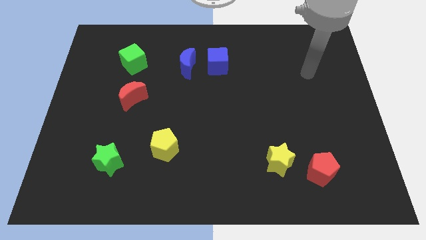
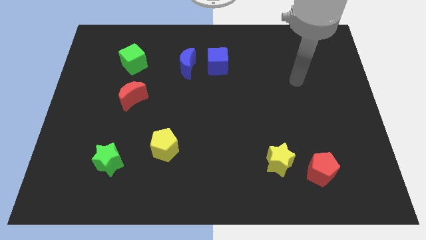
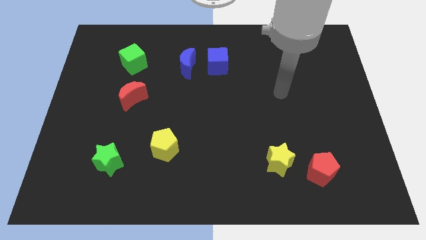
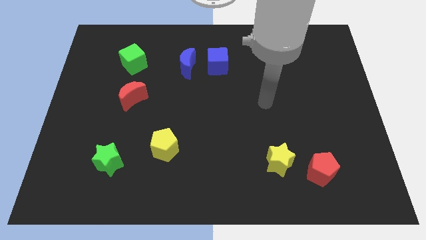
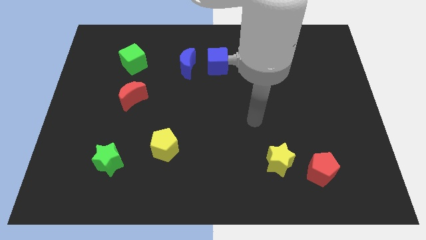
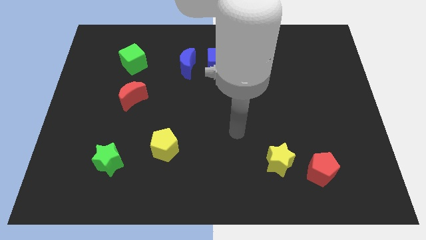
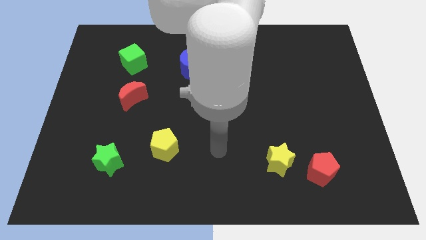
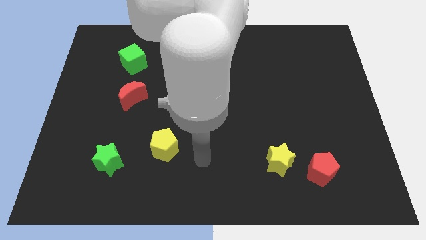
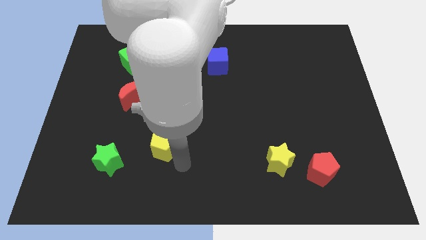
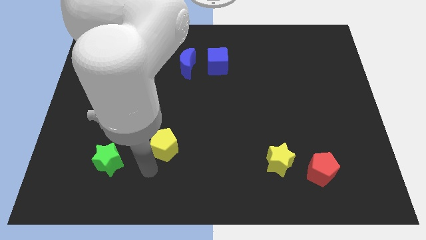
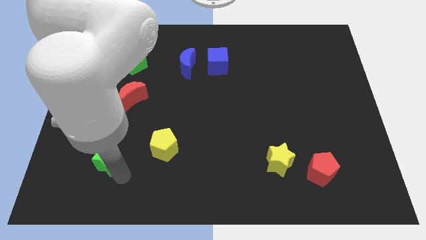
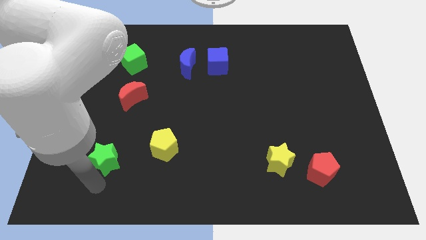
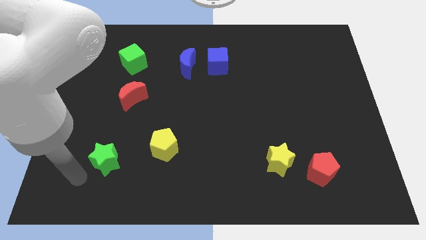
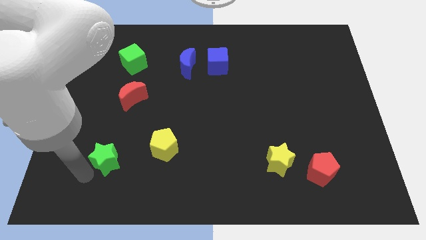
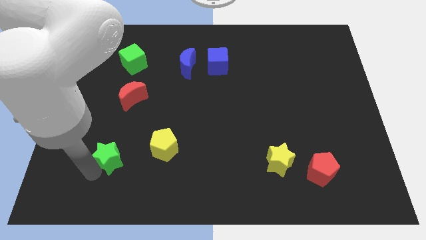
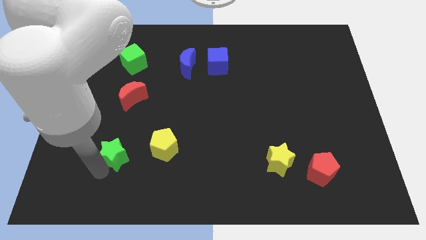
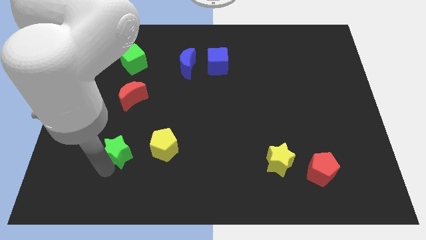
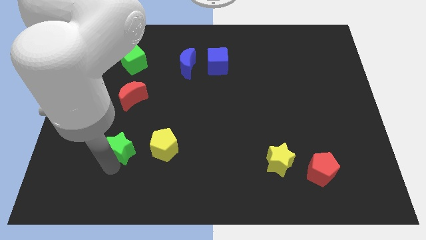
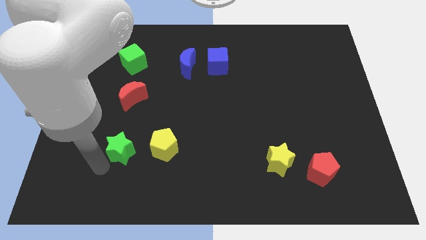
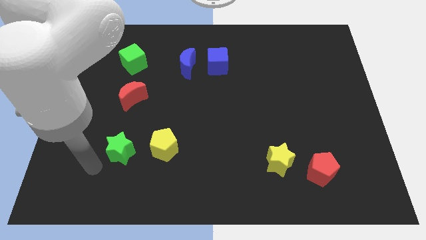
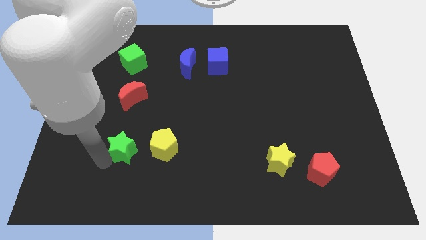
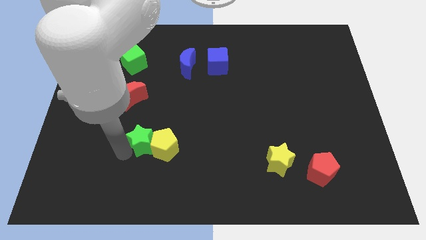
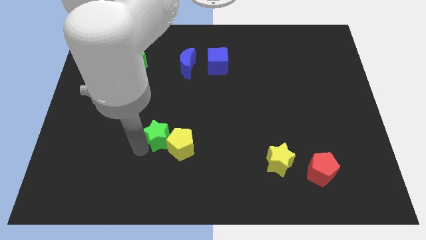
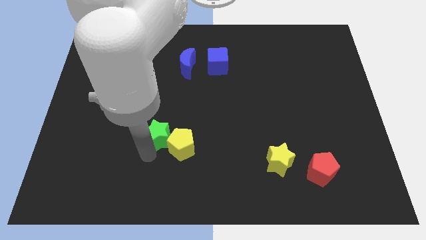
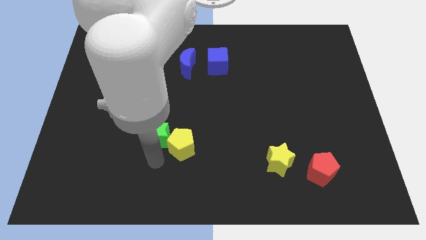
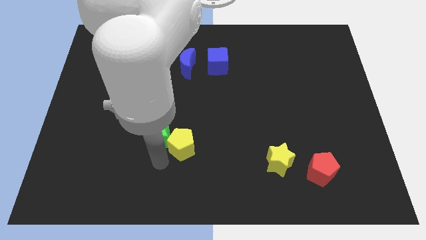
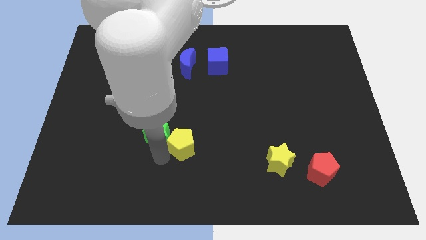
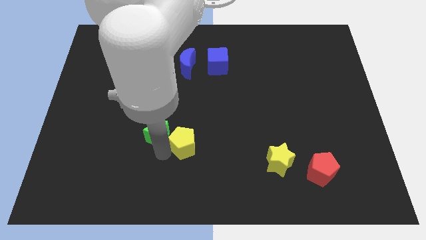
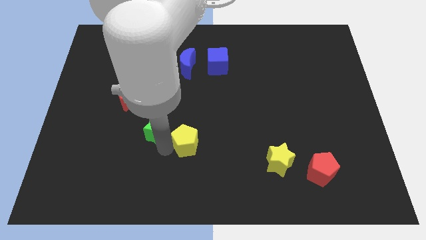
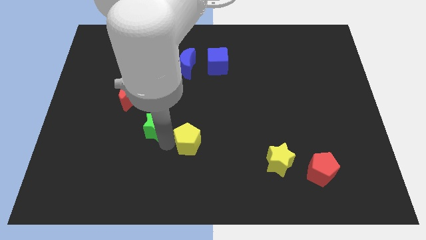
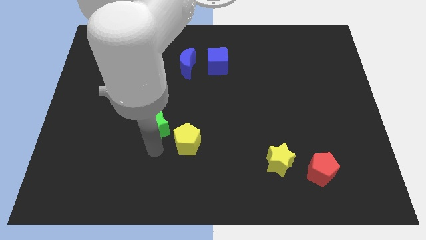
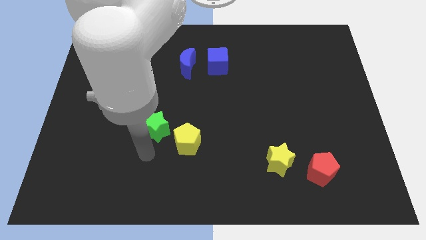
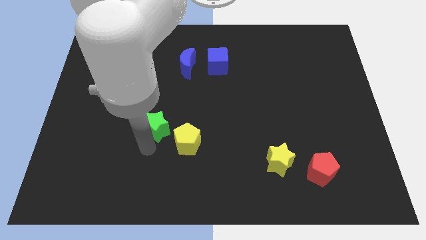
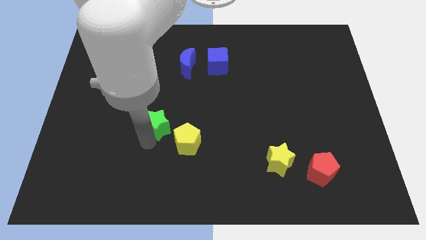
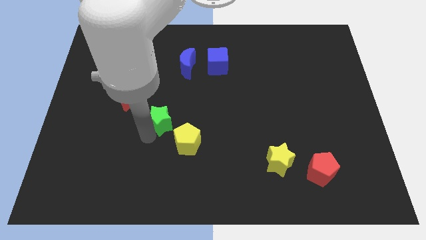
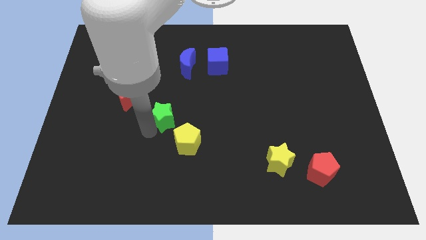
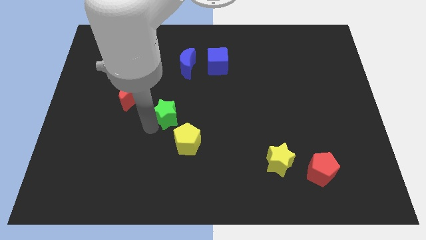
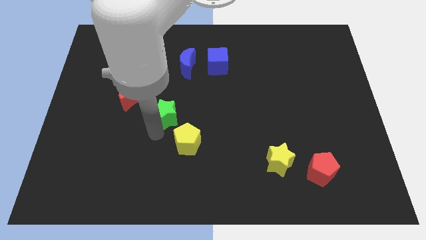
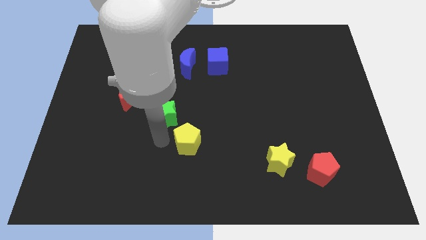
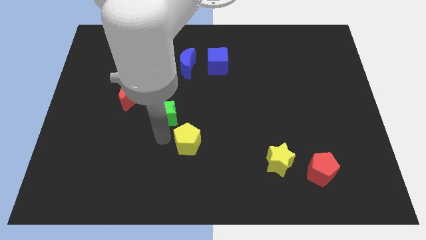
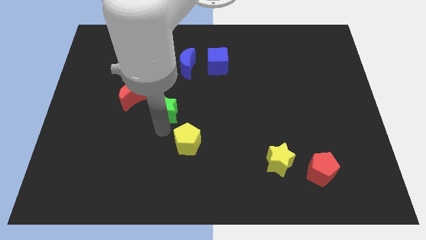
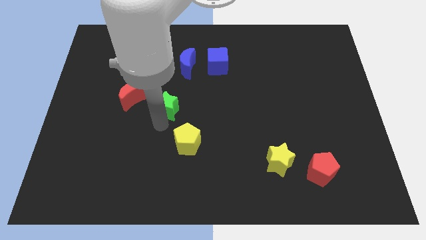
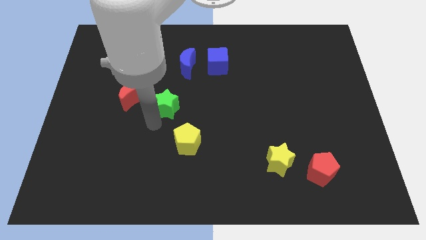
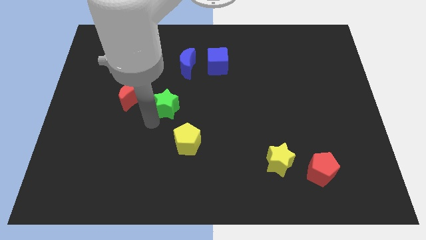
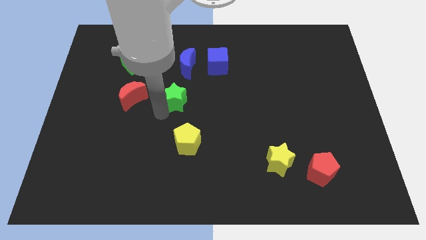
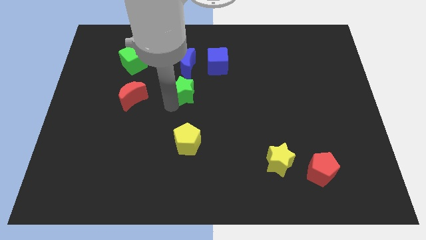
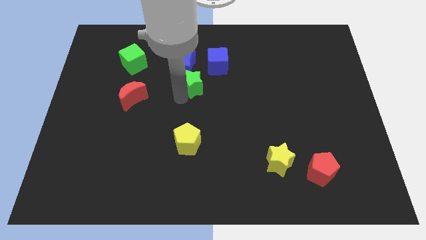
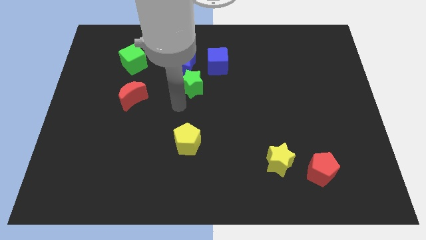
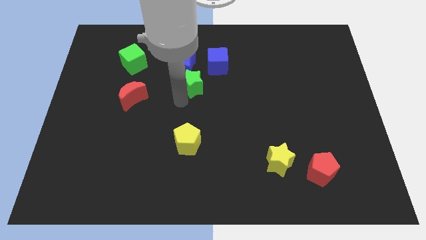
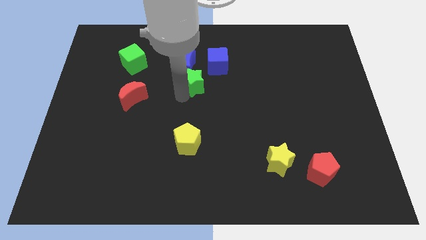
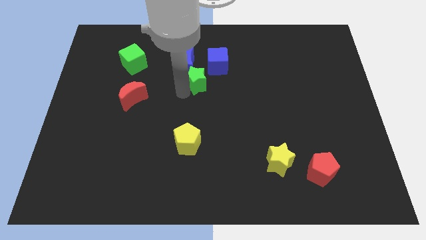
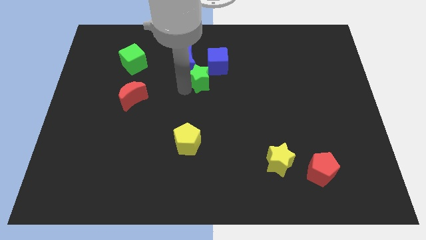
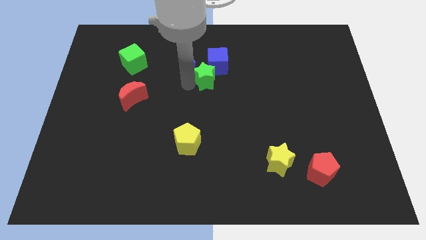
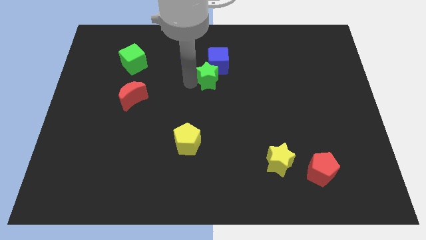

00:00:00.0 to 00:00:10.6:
move the green star to the blue cube

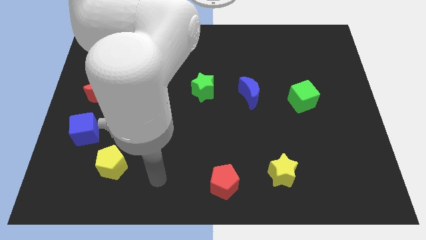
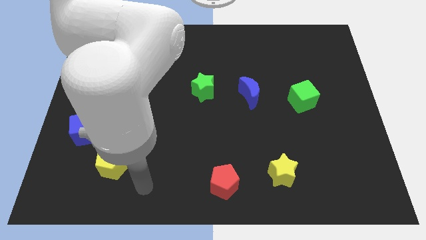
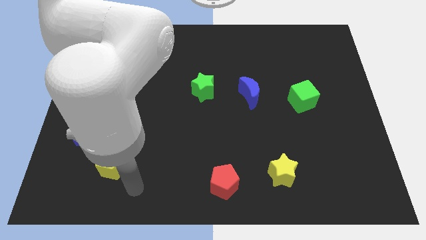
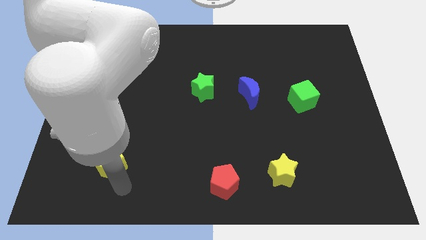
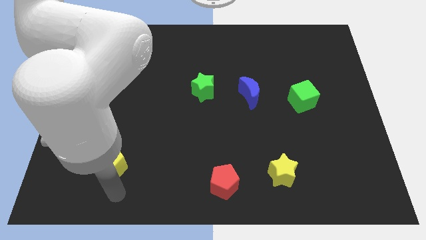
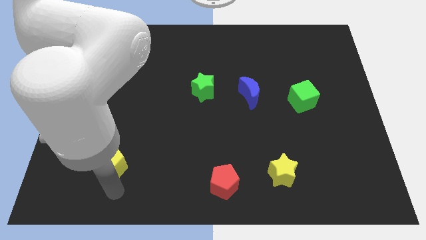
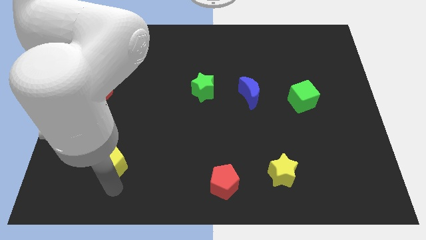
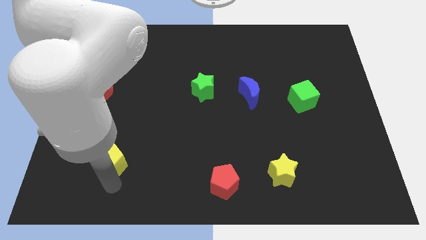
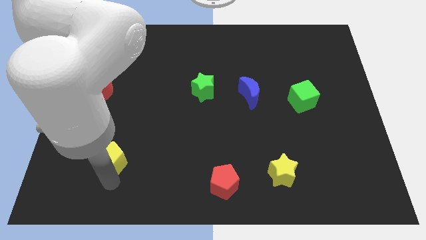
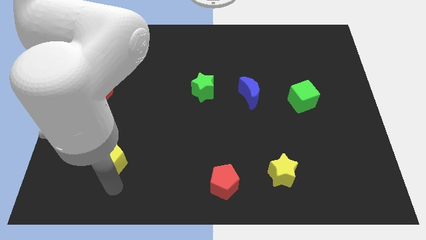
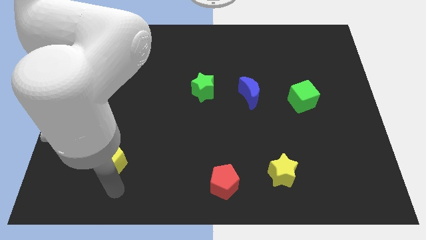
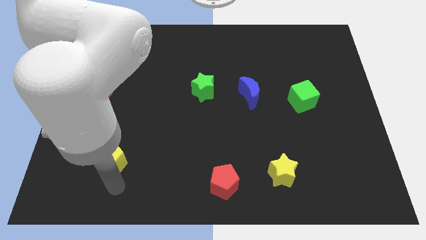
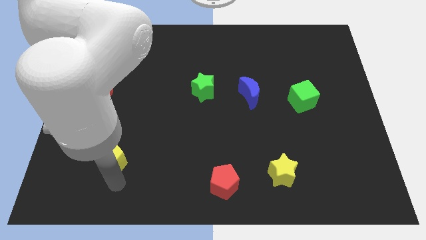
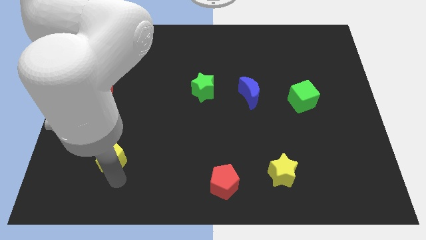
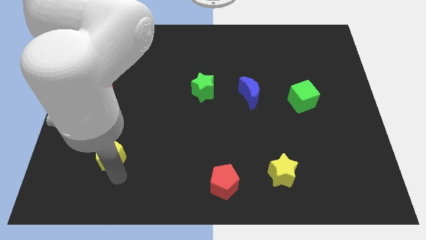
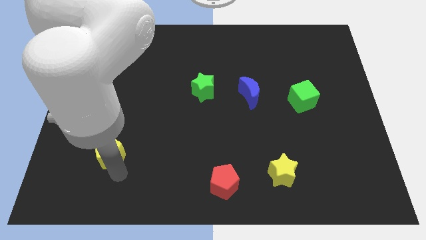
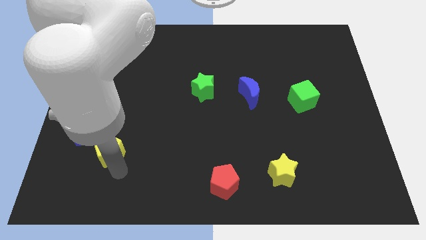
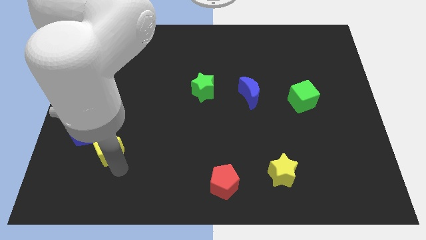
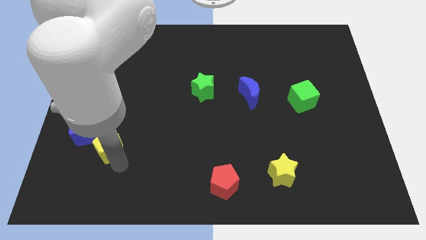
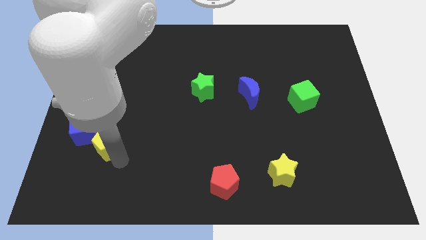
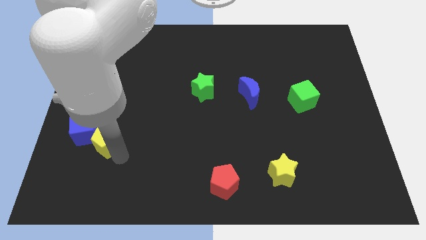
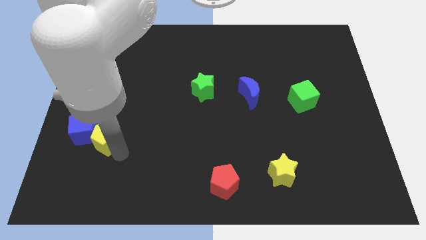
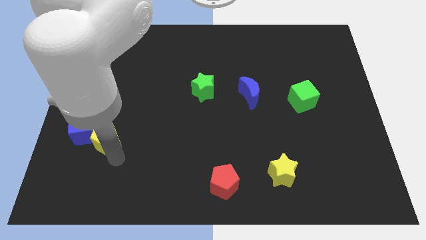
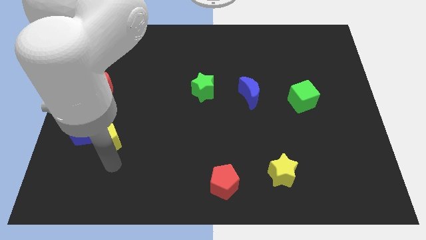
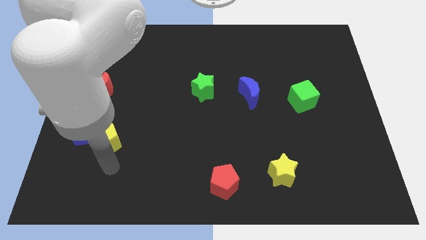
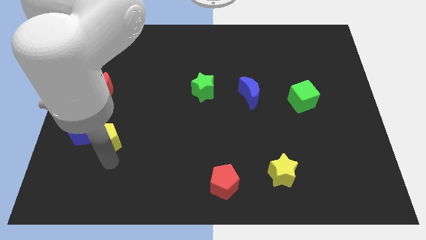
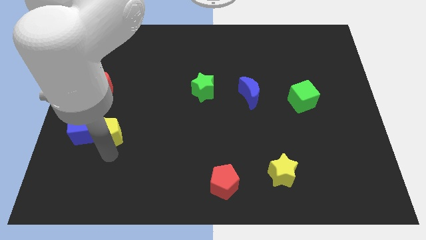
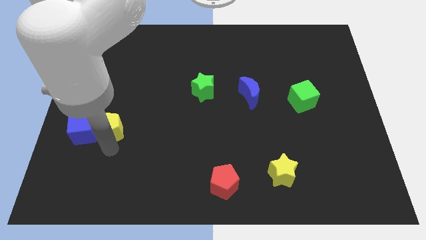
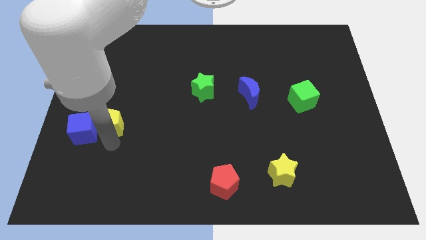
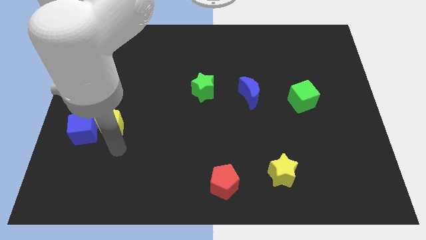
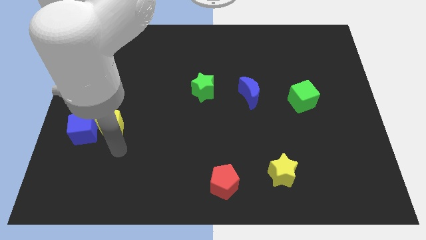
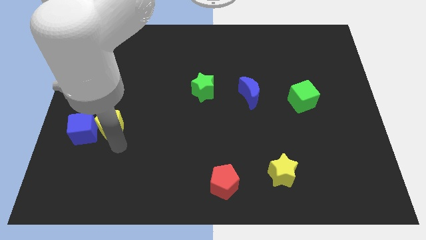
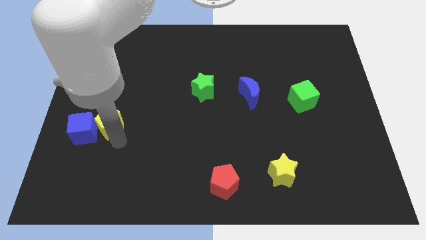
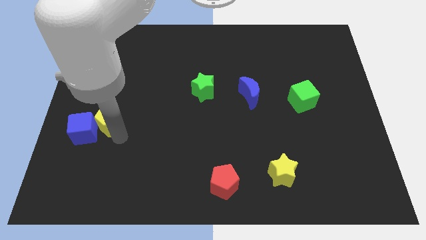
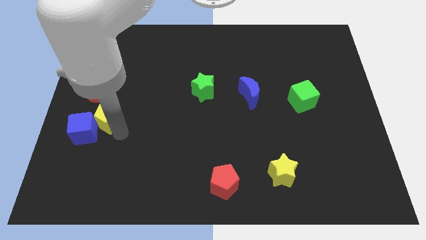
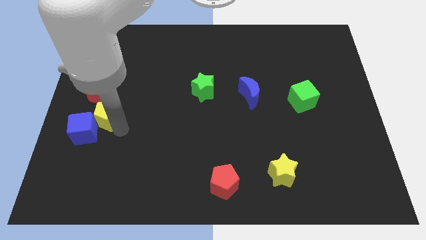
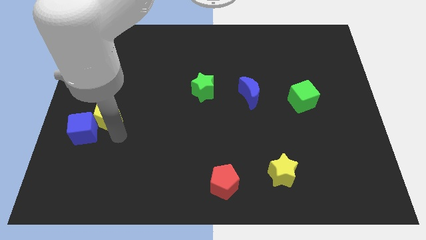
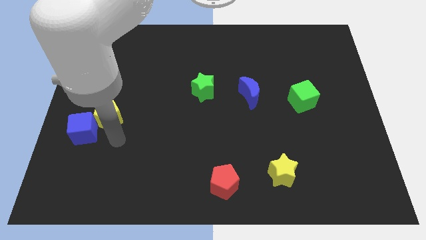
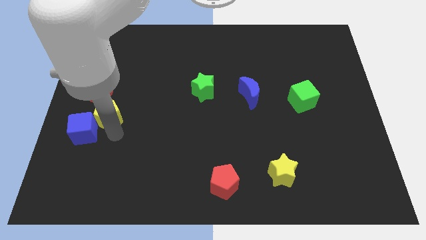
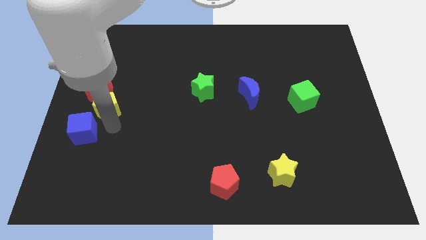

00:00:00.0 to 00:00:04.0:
put the yellow pentagon towards the red moon
